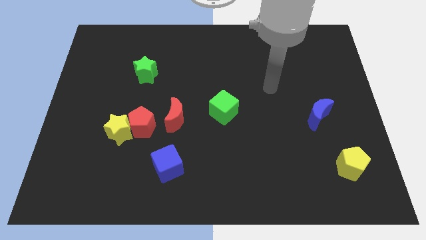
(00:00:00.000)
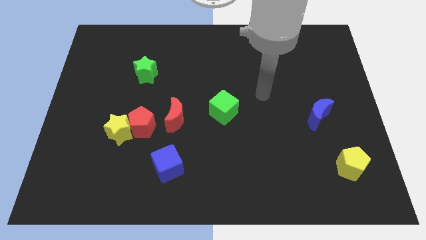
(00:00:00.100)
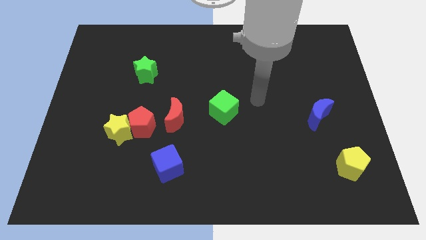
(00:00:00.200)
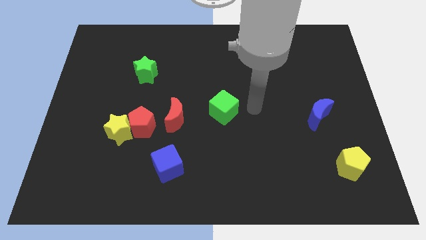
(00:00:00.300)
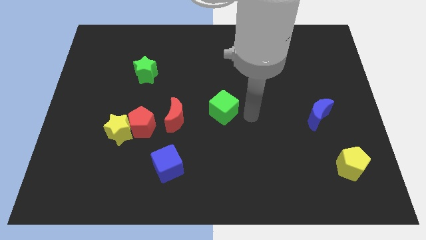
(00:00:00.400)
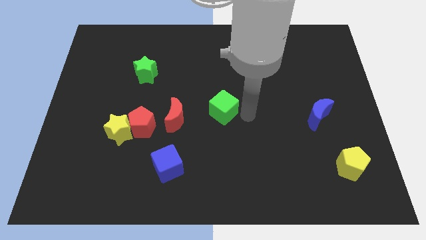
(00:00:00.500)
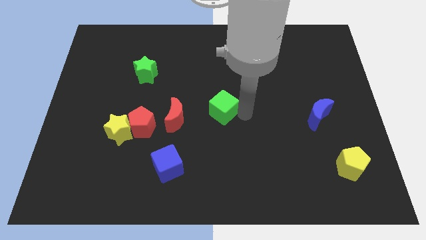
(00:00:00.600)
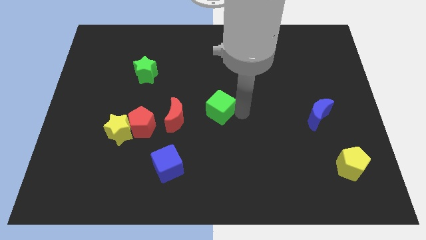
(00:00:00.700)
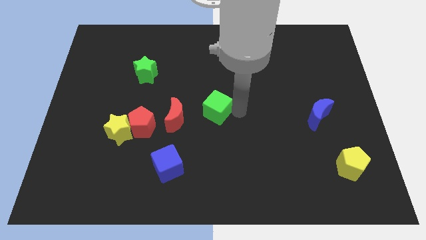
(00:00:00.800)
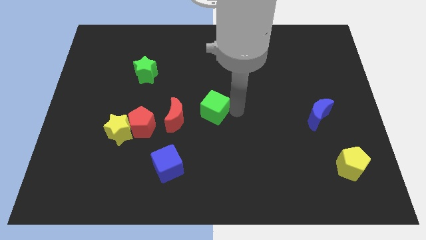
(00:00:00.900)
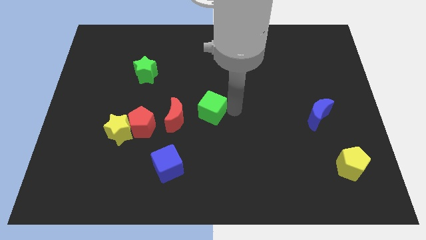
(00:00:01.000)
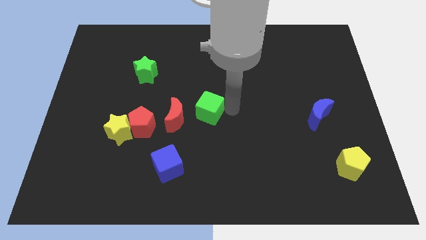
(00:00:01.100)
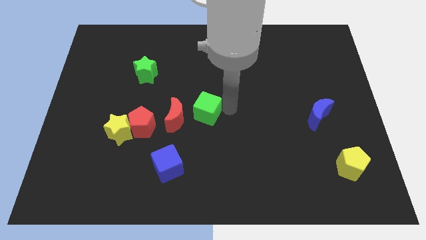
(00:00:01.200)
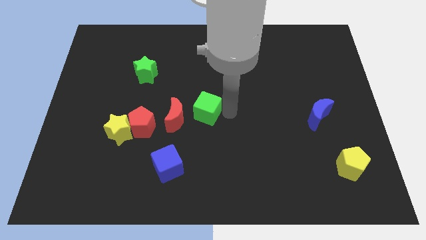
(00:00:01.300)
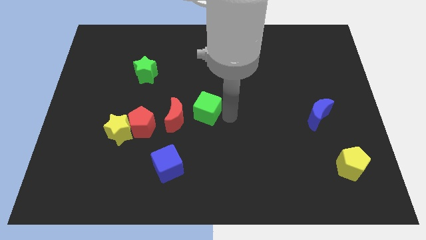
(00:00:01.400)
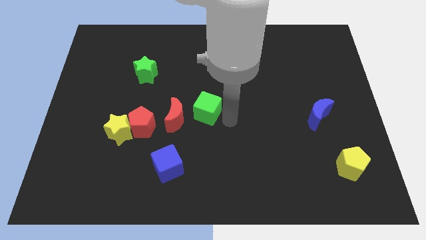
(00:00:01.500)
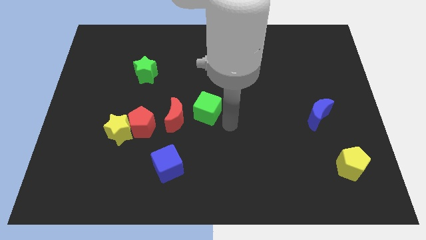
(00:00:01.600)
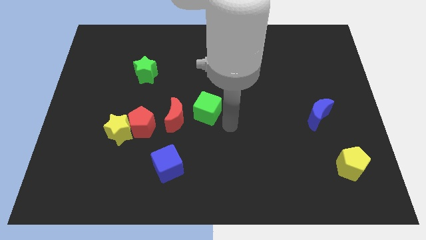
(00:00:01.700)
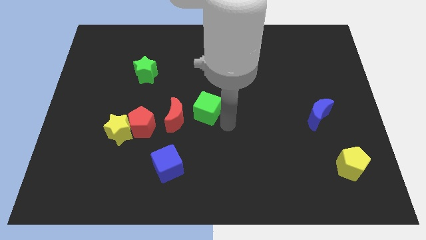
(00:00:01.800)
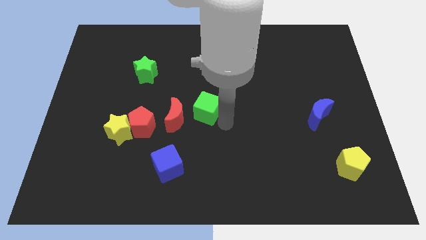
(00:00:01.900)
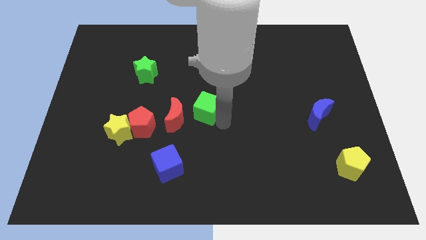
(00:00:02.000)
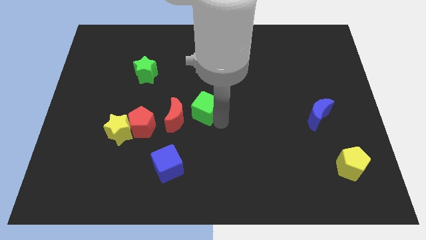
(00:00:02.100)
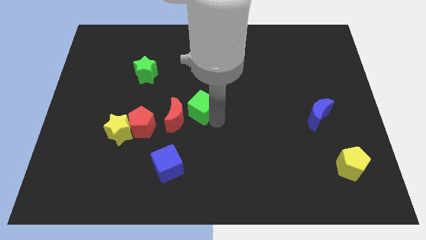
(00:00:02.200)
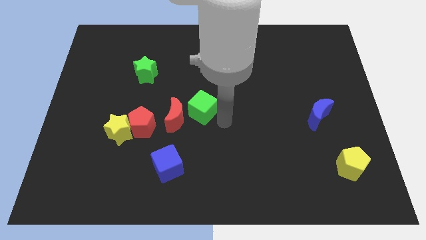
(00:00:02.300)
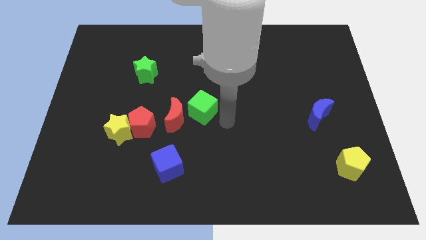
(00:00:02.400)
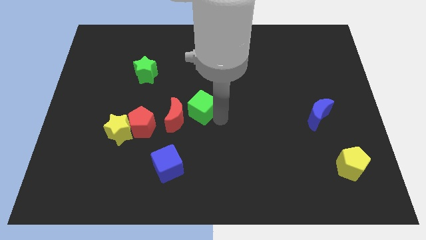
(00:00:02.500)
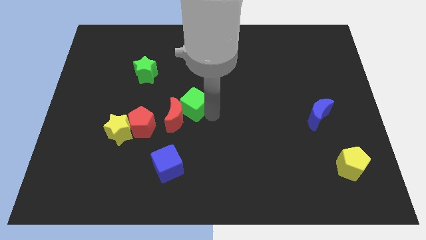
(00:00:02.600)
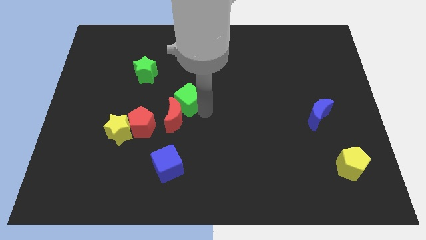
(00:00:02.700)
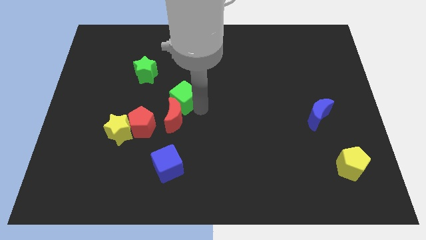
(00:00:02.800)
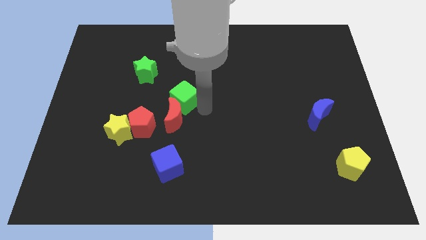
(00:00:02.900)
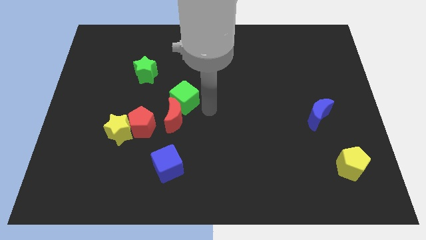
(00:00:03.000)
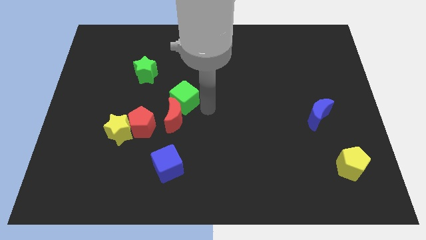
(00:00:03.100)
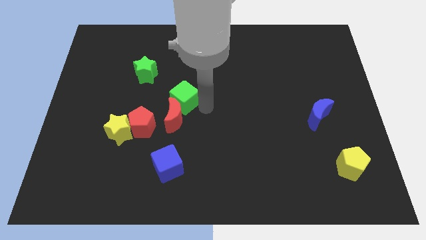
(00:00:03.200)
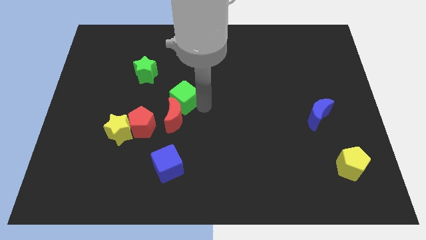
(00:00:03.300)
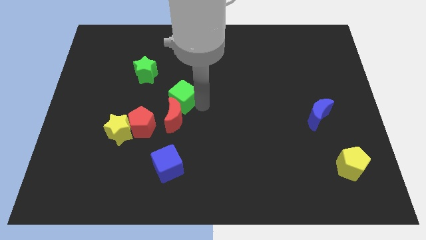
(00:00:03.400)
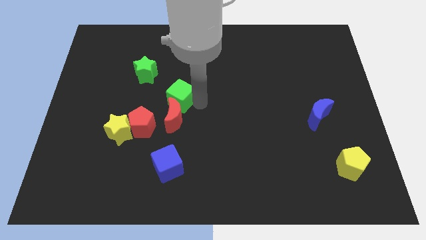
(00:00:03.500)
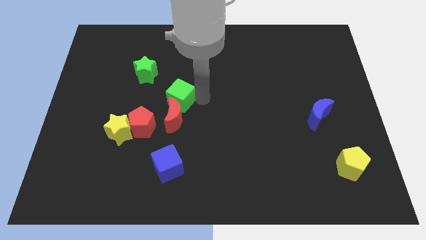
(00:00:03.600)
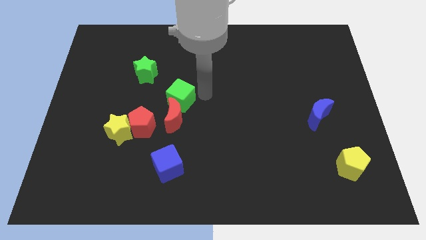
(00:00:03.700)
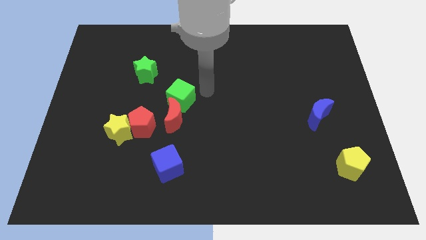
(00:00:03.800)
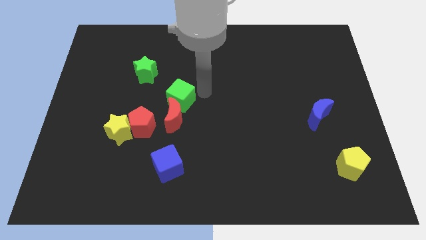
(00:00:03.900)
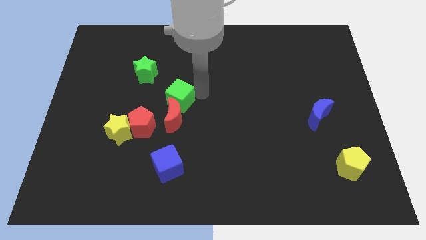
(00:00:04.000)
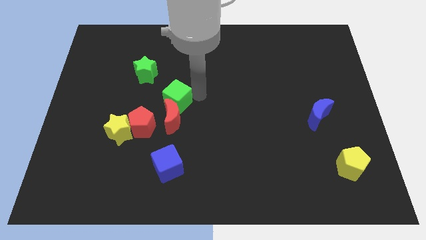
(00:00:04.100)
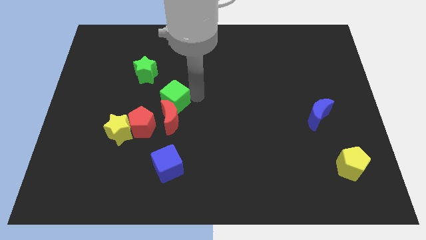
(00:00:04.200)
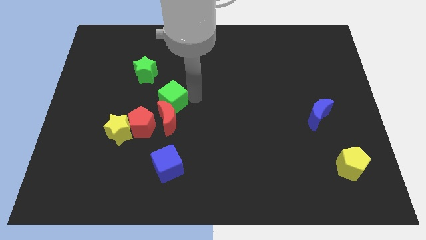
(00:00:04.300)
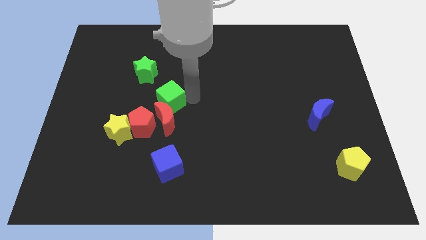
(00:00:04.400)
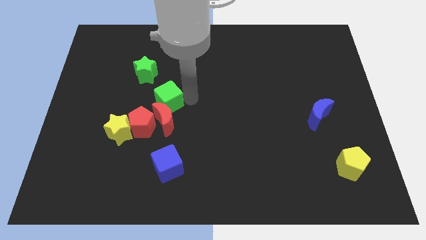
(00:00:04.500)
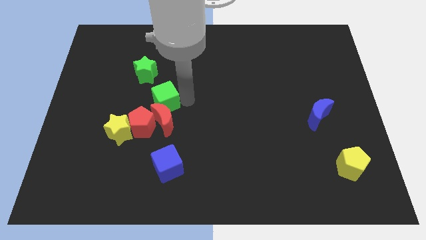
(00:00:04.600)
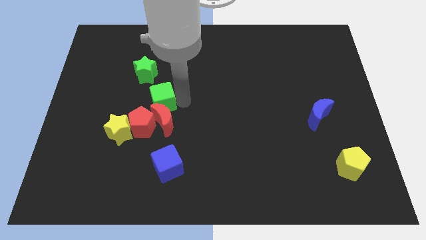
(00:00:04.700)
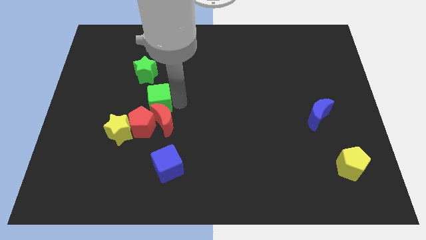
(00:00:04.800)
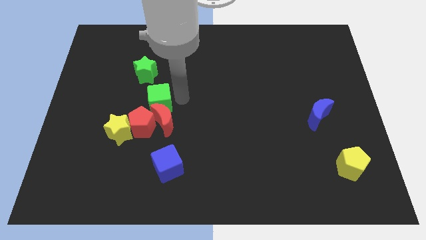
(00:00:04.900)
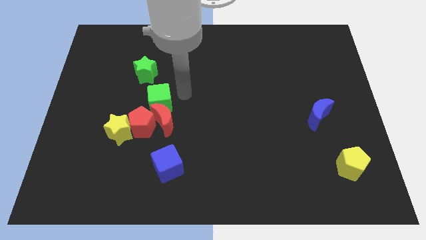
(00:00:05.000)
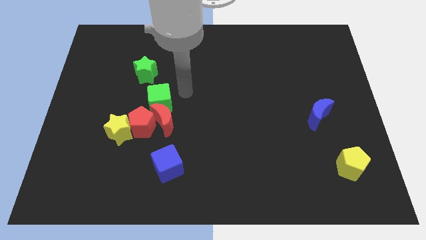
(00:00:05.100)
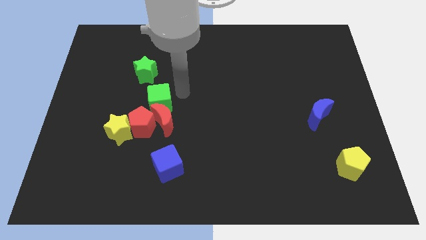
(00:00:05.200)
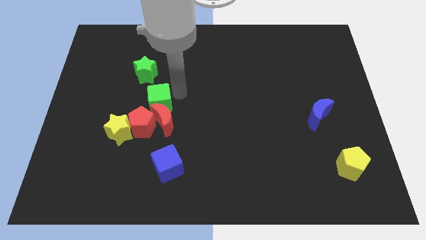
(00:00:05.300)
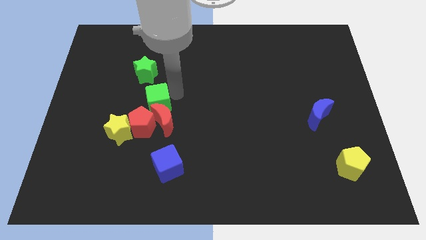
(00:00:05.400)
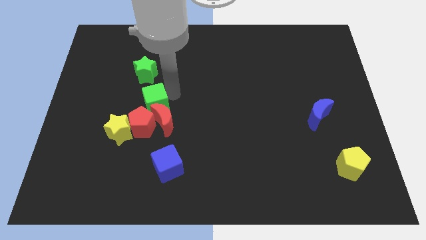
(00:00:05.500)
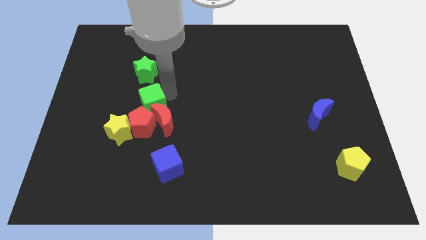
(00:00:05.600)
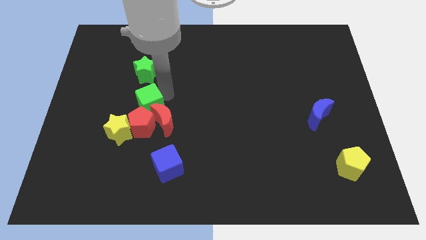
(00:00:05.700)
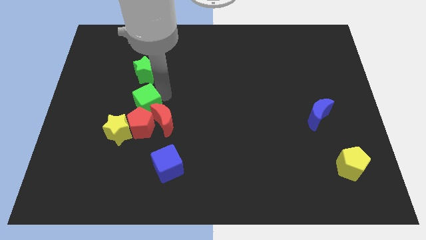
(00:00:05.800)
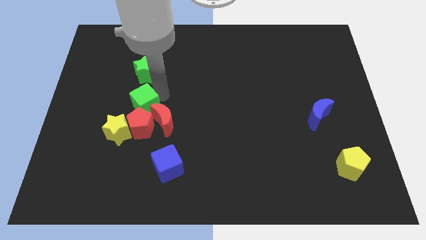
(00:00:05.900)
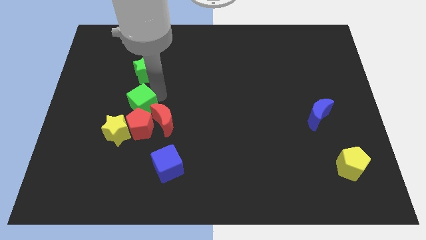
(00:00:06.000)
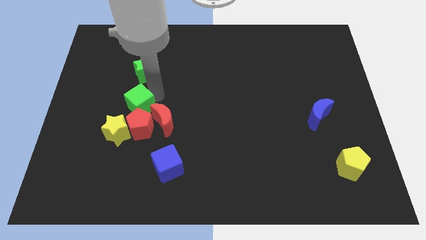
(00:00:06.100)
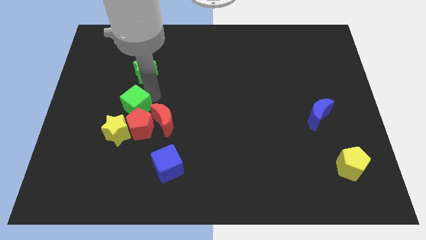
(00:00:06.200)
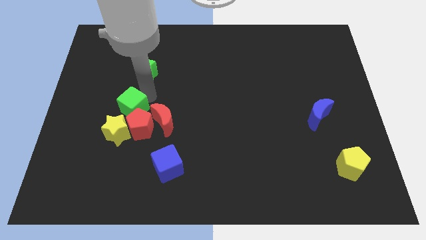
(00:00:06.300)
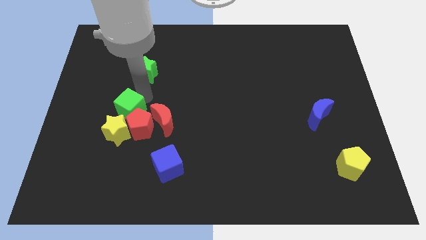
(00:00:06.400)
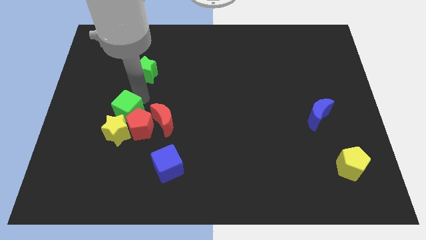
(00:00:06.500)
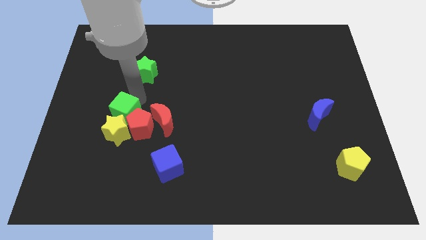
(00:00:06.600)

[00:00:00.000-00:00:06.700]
push the green cube to the yellow star
